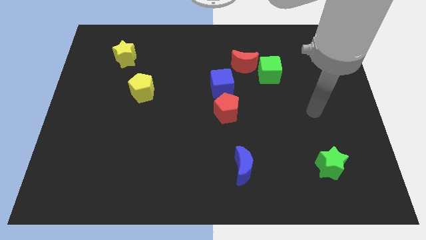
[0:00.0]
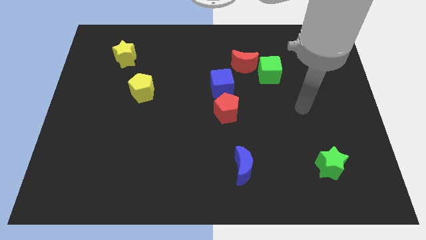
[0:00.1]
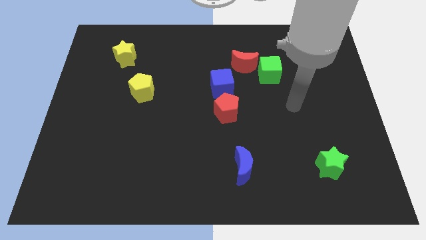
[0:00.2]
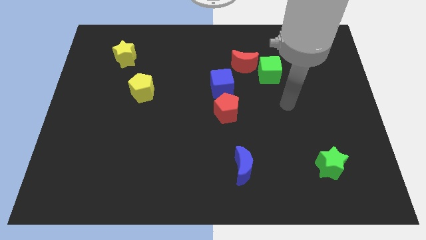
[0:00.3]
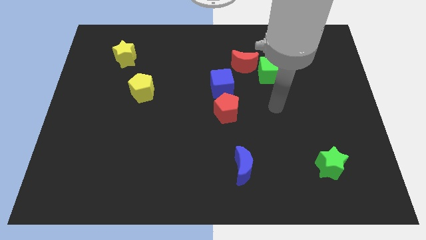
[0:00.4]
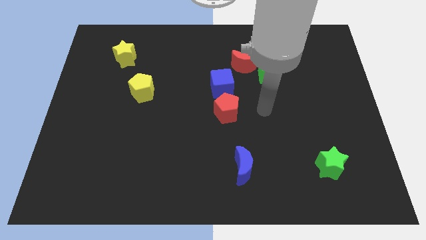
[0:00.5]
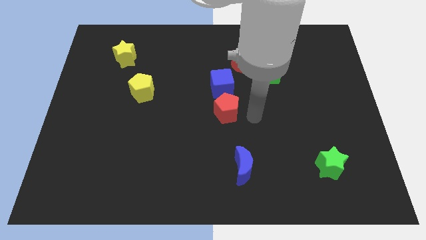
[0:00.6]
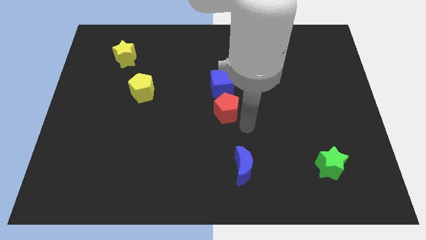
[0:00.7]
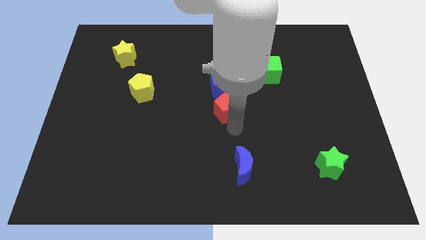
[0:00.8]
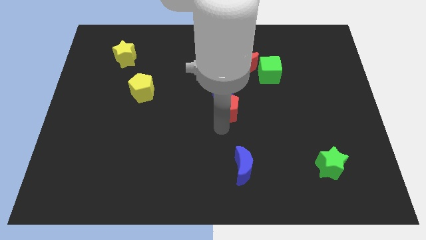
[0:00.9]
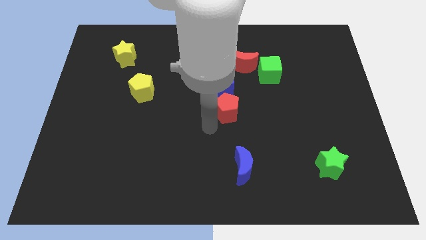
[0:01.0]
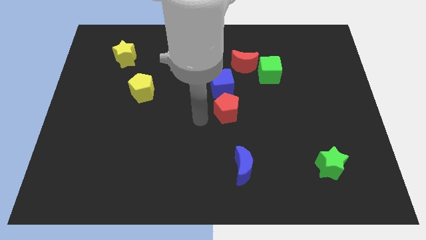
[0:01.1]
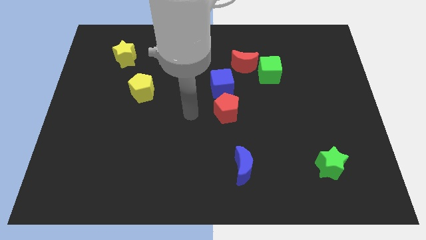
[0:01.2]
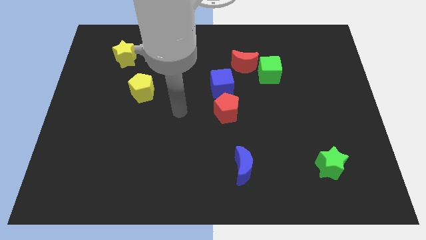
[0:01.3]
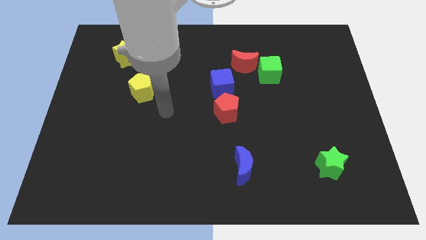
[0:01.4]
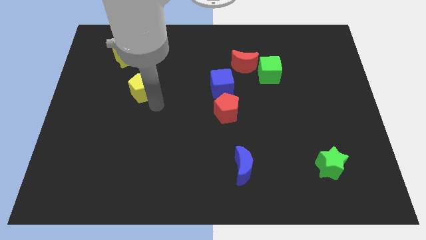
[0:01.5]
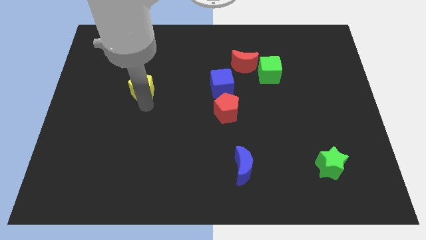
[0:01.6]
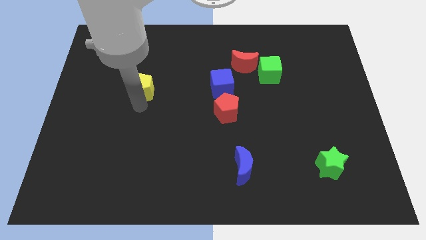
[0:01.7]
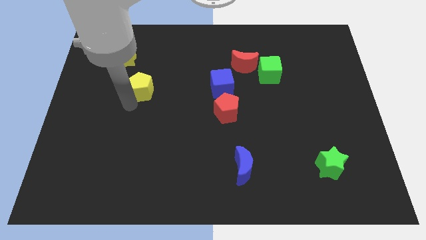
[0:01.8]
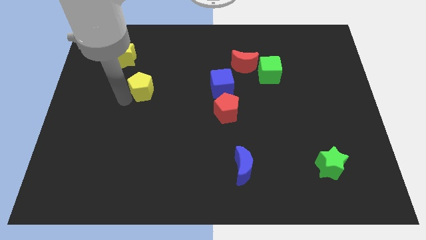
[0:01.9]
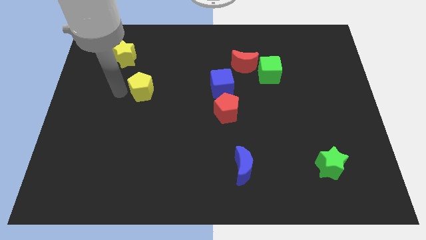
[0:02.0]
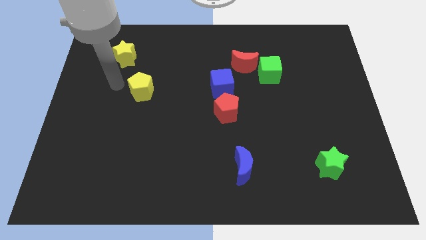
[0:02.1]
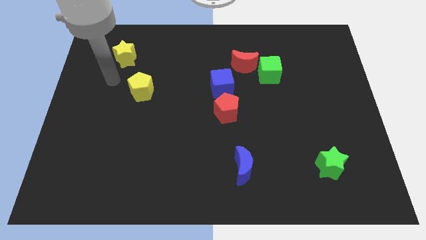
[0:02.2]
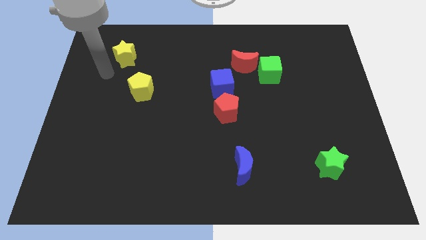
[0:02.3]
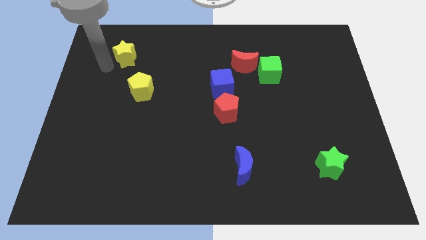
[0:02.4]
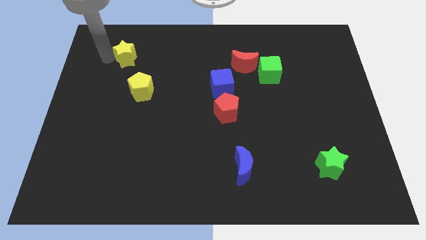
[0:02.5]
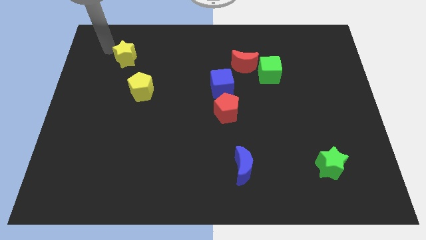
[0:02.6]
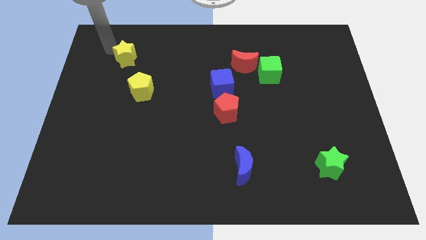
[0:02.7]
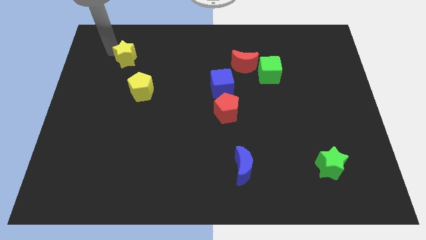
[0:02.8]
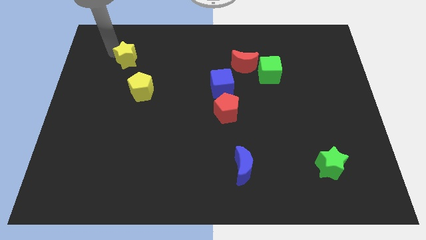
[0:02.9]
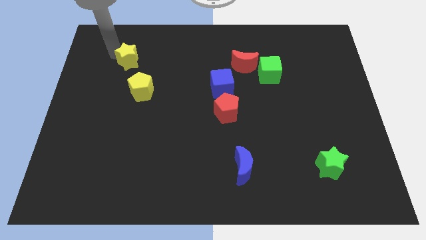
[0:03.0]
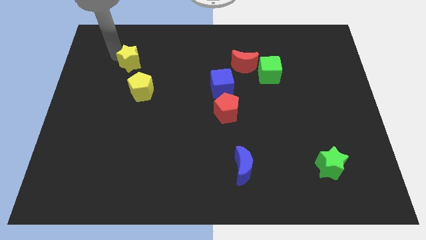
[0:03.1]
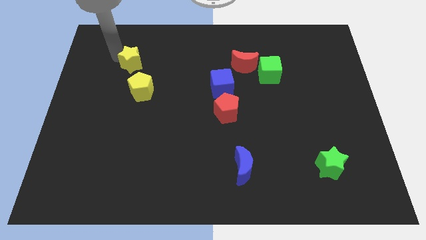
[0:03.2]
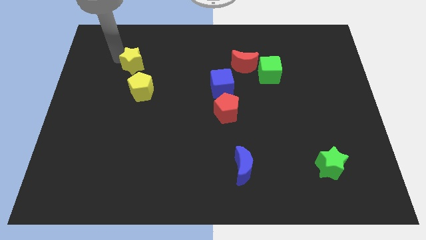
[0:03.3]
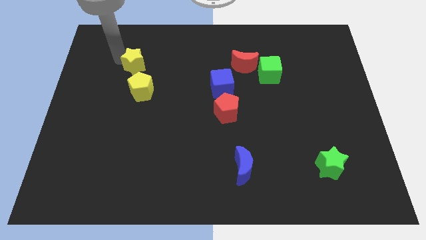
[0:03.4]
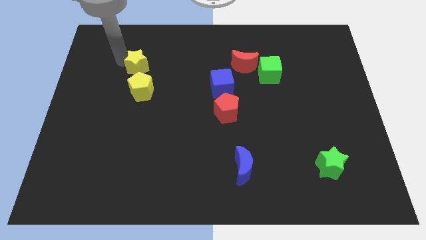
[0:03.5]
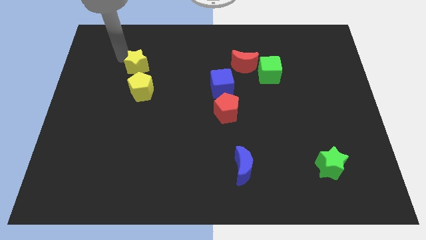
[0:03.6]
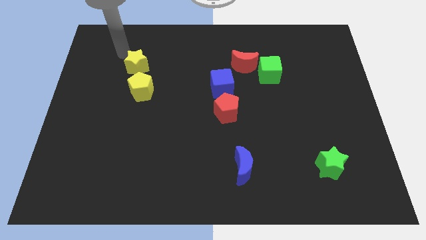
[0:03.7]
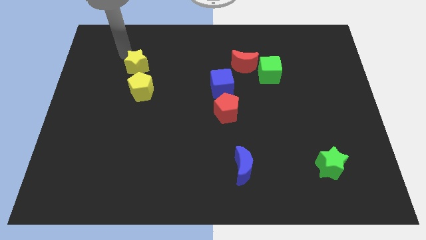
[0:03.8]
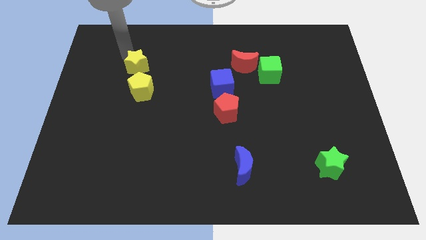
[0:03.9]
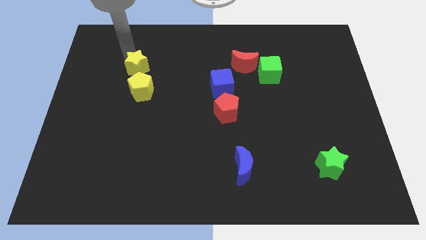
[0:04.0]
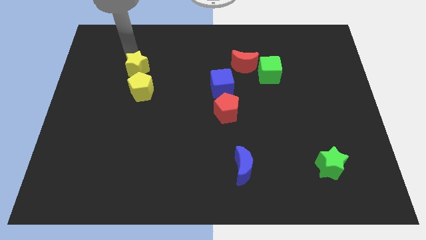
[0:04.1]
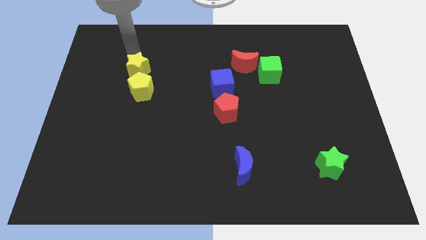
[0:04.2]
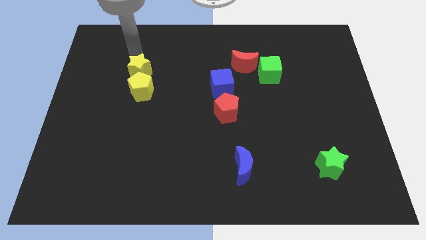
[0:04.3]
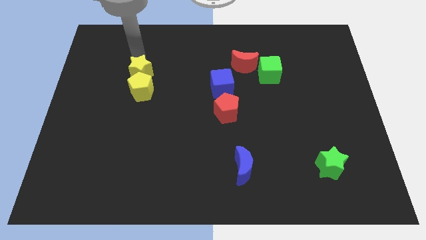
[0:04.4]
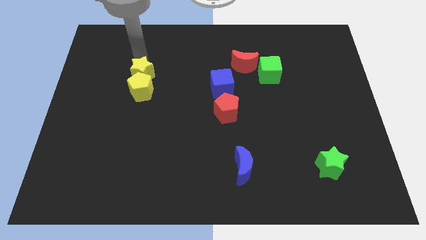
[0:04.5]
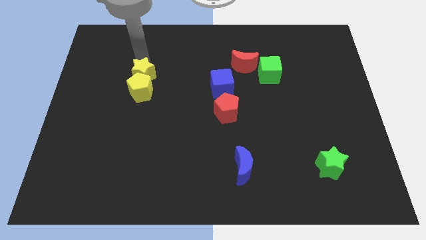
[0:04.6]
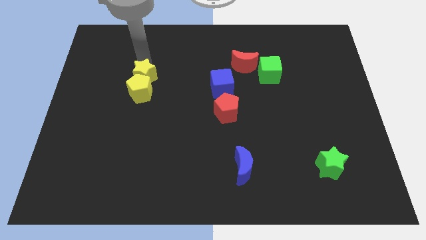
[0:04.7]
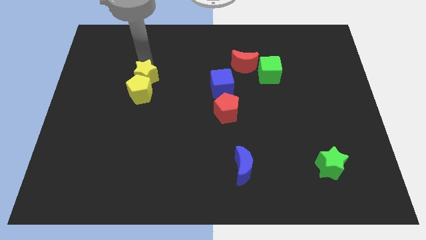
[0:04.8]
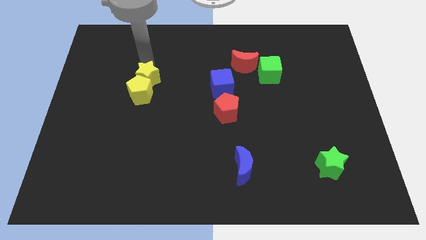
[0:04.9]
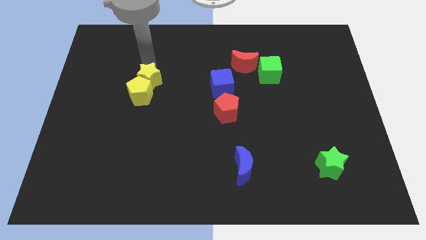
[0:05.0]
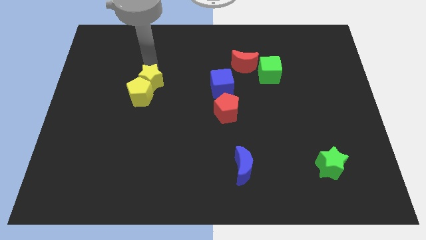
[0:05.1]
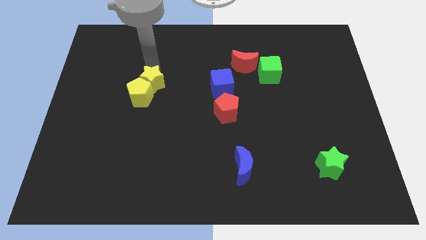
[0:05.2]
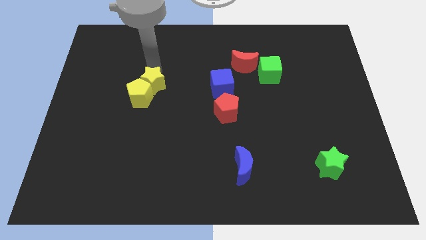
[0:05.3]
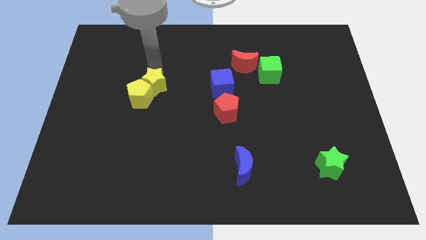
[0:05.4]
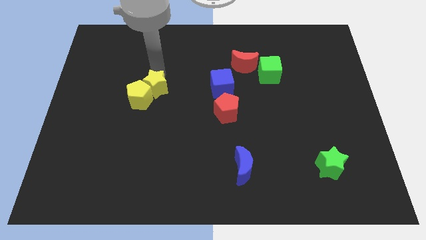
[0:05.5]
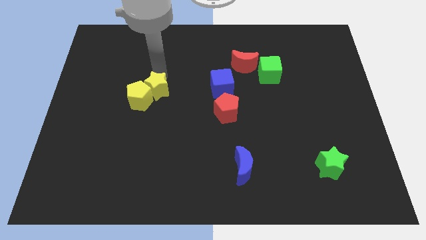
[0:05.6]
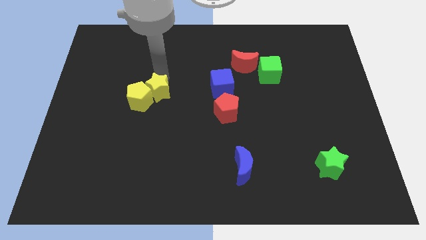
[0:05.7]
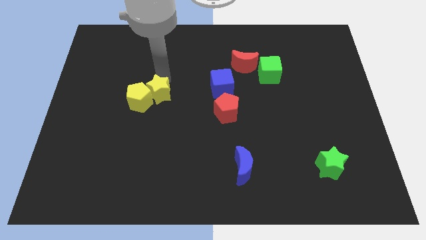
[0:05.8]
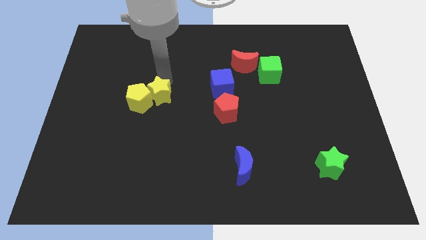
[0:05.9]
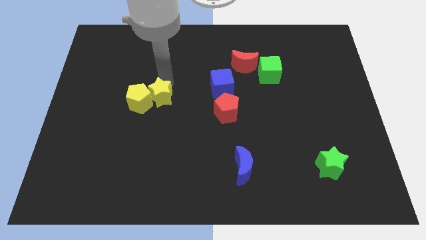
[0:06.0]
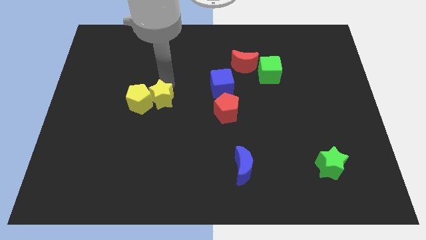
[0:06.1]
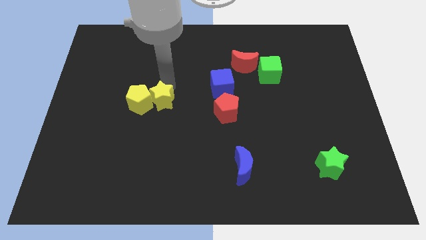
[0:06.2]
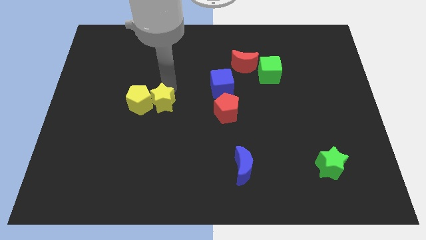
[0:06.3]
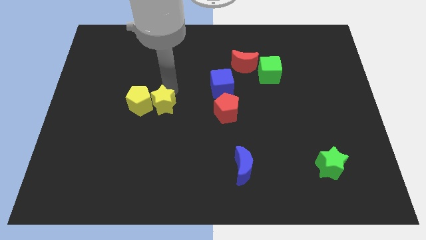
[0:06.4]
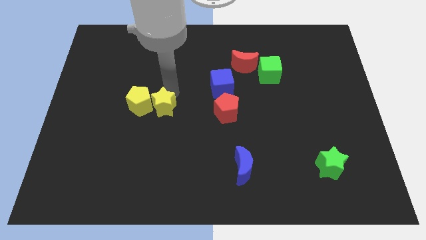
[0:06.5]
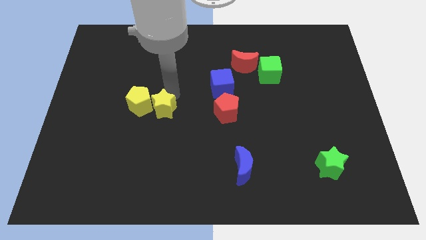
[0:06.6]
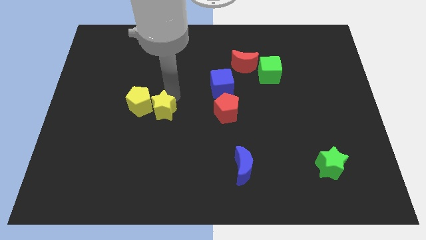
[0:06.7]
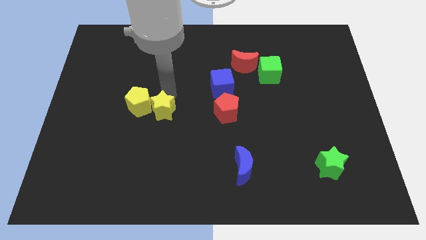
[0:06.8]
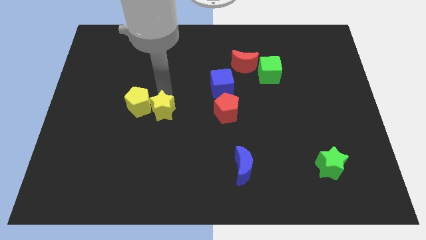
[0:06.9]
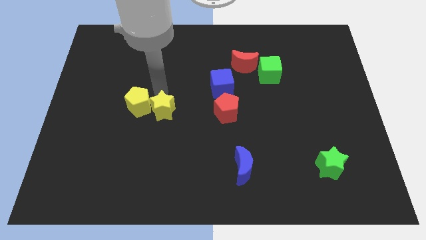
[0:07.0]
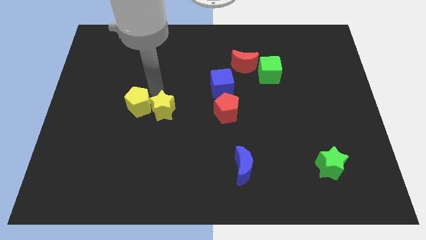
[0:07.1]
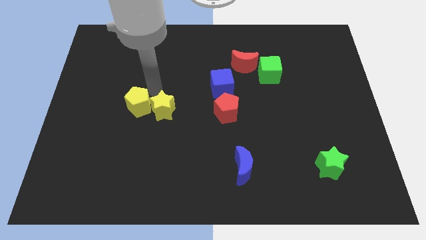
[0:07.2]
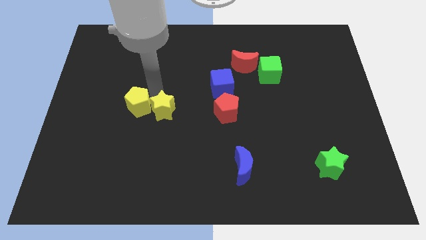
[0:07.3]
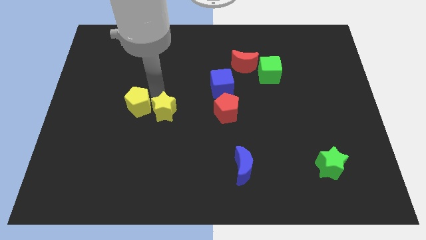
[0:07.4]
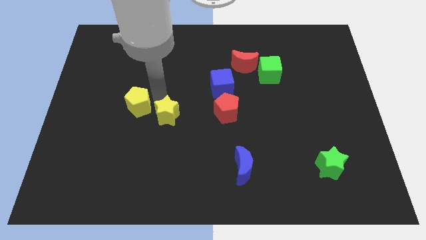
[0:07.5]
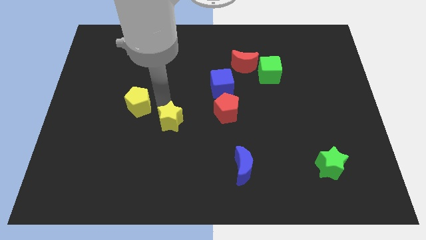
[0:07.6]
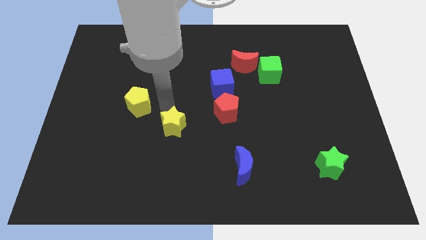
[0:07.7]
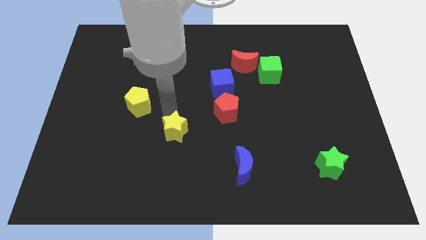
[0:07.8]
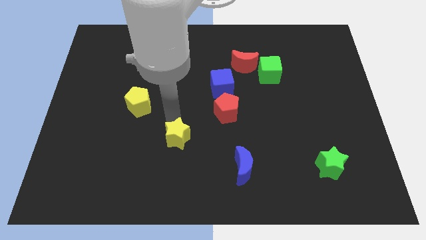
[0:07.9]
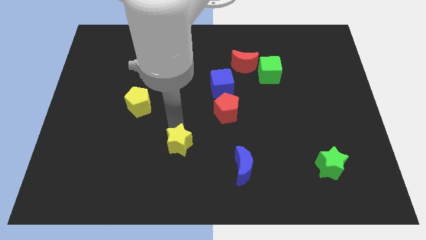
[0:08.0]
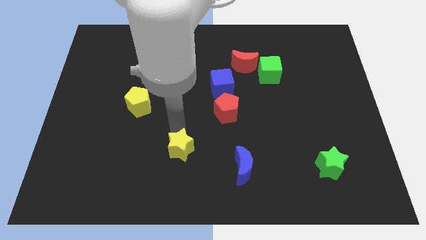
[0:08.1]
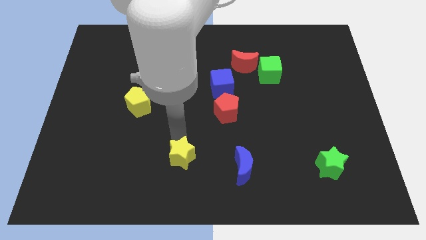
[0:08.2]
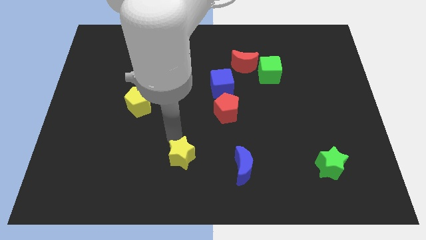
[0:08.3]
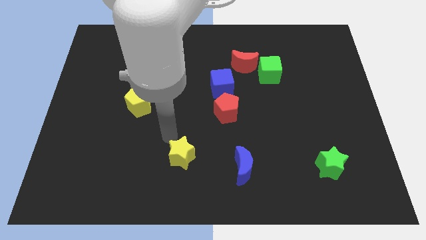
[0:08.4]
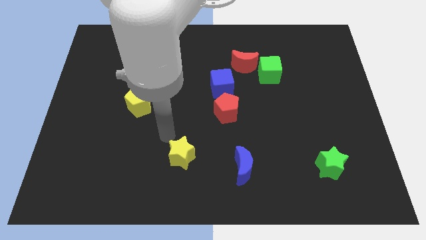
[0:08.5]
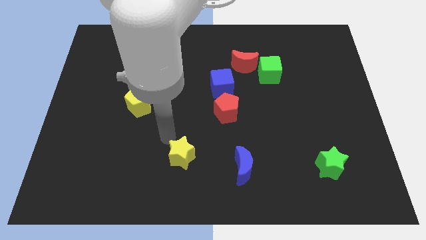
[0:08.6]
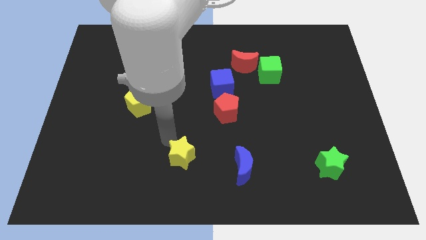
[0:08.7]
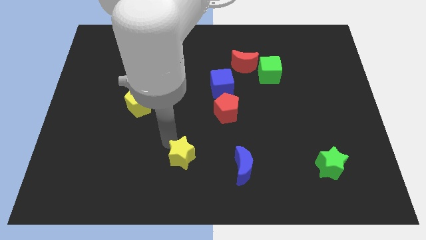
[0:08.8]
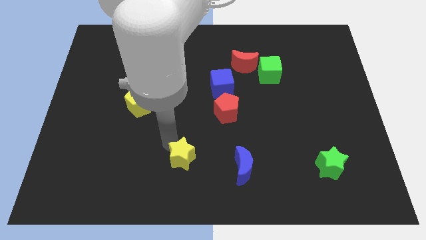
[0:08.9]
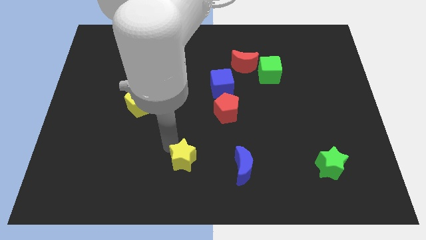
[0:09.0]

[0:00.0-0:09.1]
slide the yellow star to the bottom side
